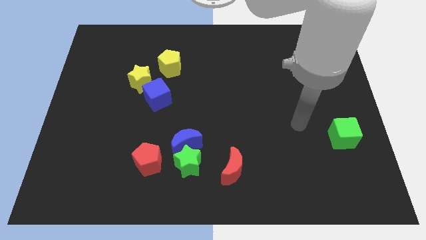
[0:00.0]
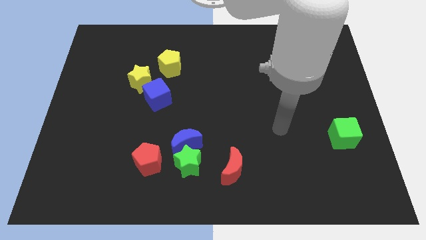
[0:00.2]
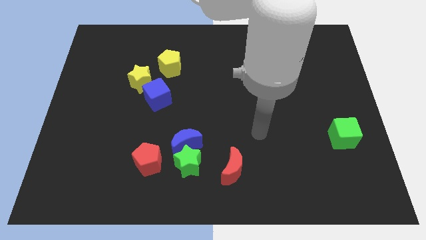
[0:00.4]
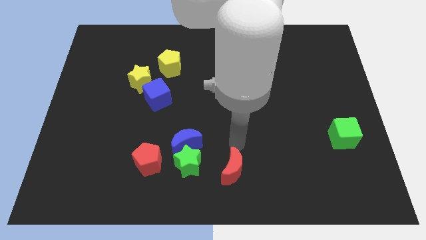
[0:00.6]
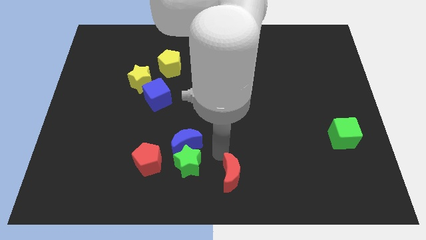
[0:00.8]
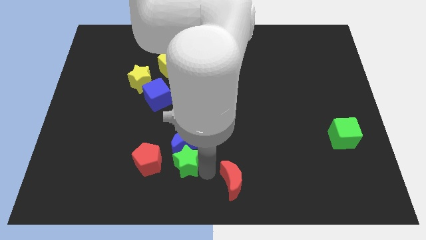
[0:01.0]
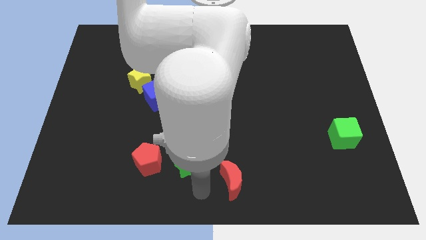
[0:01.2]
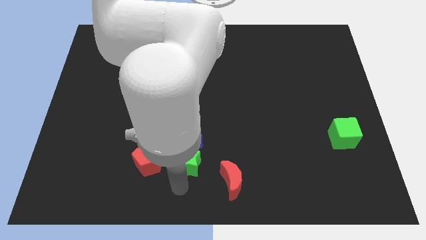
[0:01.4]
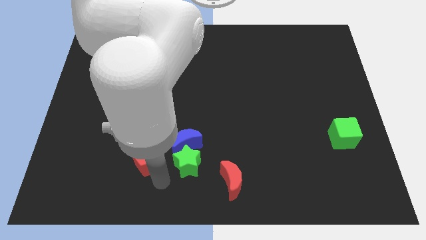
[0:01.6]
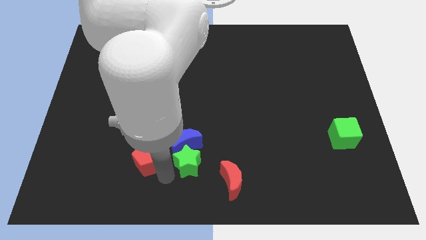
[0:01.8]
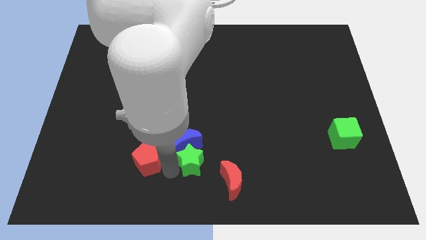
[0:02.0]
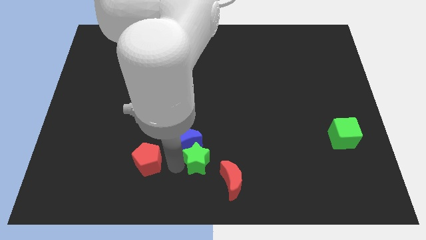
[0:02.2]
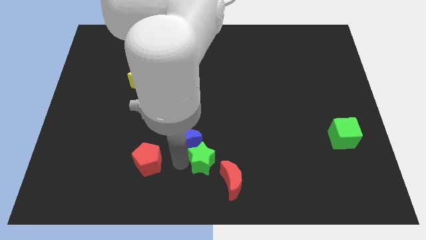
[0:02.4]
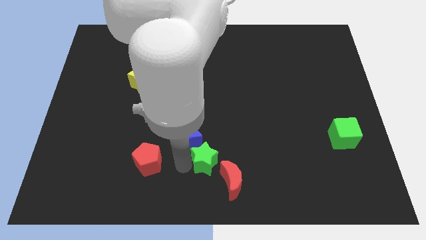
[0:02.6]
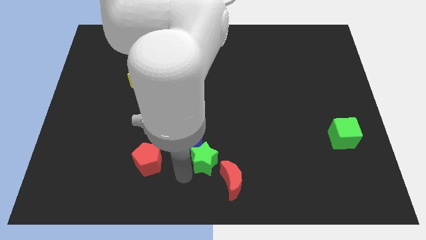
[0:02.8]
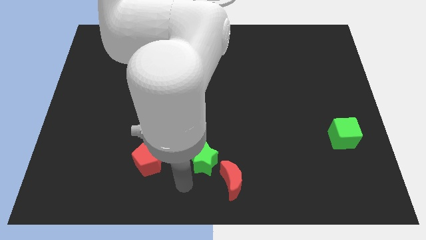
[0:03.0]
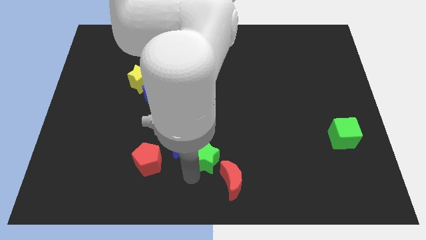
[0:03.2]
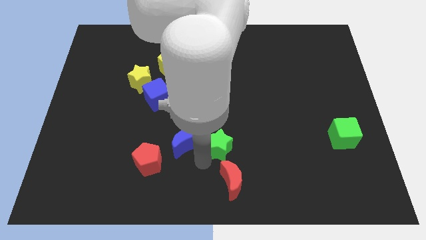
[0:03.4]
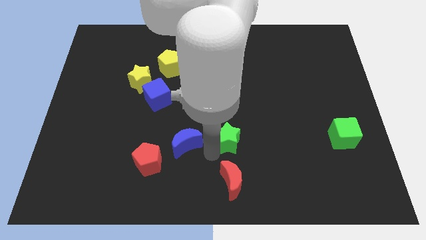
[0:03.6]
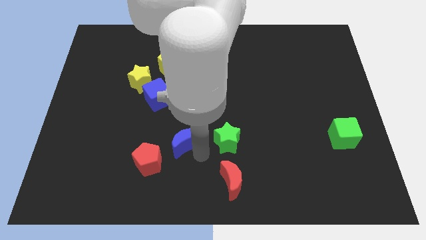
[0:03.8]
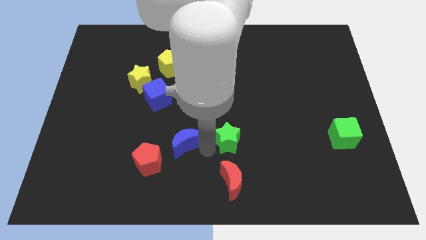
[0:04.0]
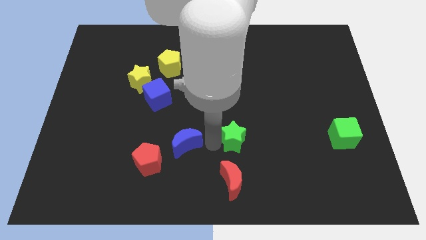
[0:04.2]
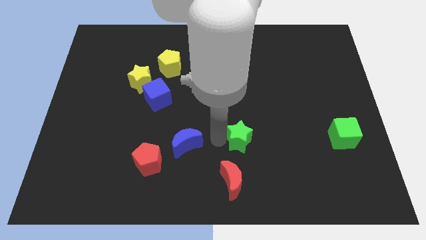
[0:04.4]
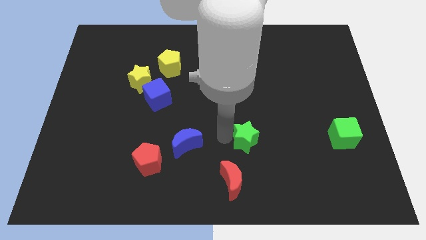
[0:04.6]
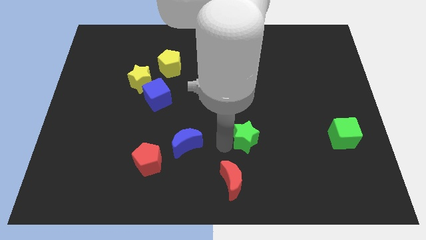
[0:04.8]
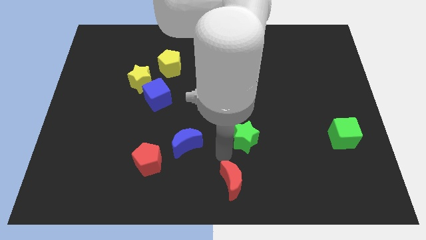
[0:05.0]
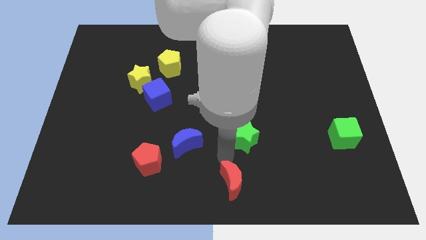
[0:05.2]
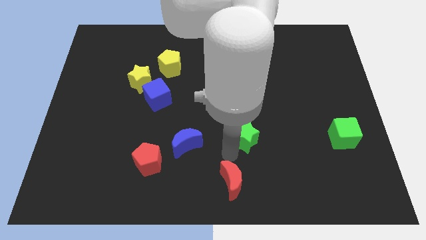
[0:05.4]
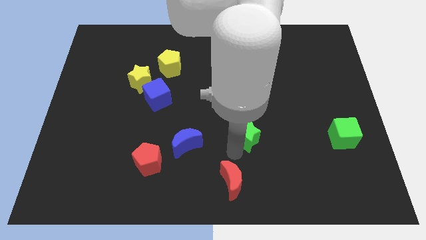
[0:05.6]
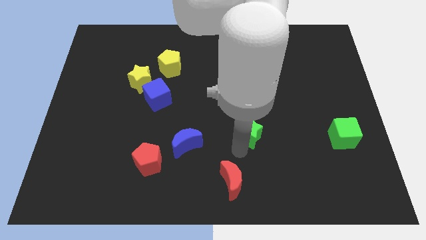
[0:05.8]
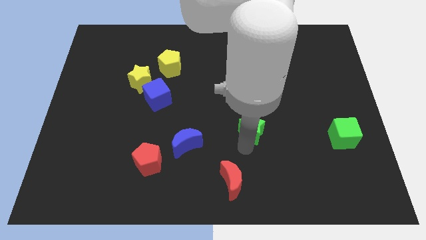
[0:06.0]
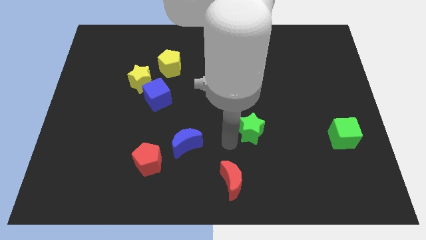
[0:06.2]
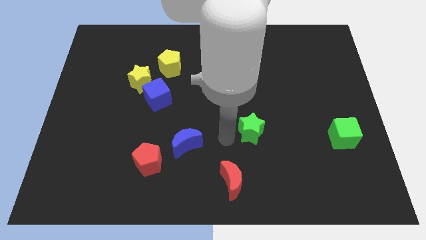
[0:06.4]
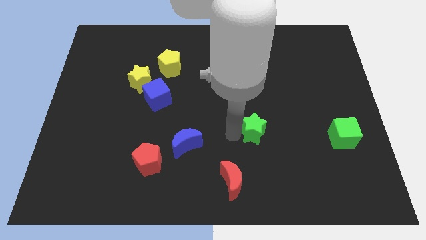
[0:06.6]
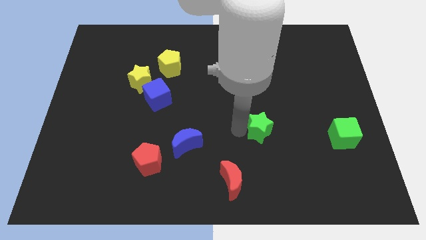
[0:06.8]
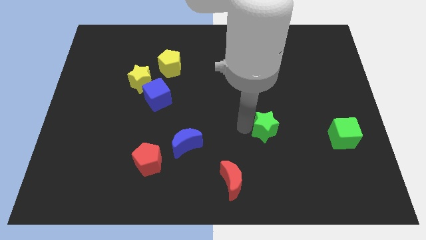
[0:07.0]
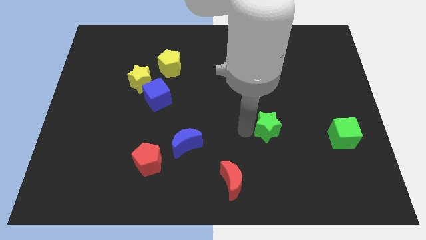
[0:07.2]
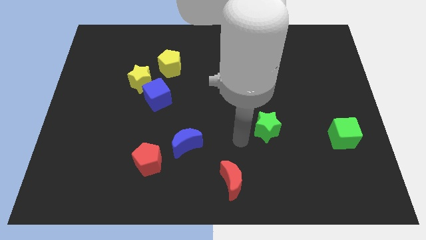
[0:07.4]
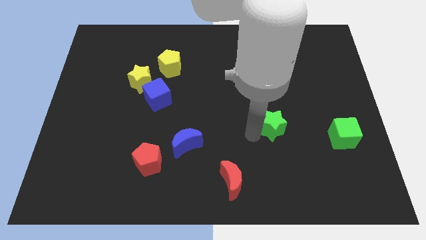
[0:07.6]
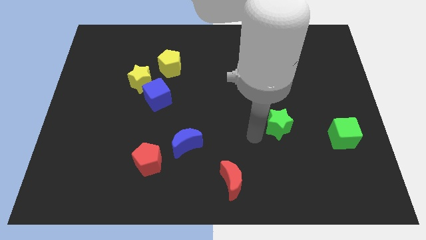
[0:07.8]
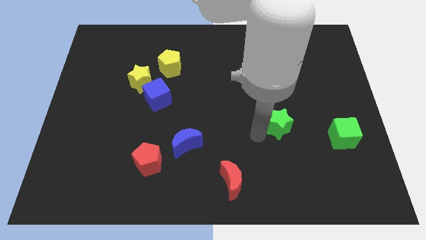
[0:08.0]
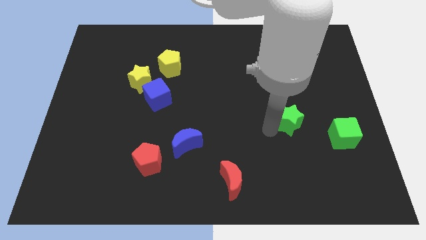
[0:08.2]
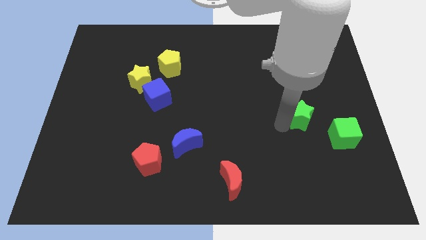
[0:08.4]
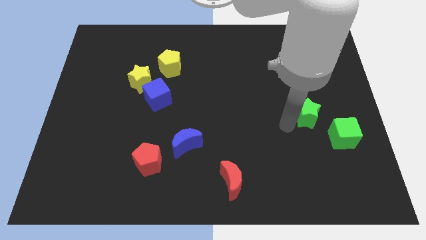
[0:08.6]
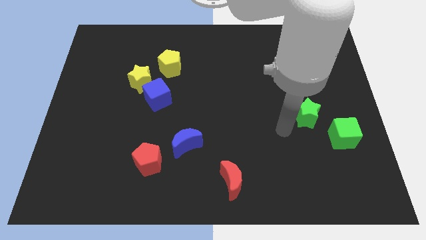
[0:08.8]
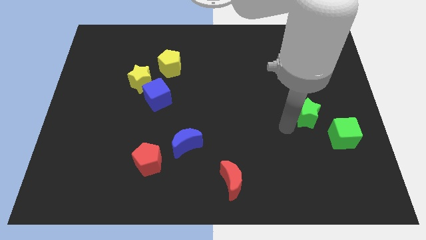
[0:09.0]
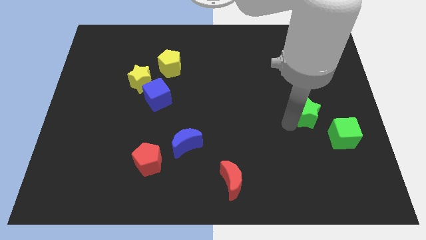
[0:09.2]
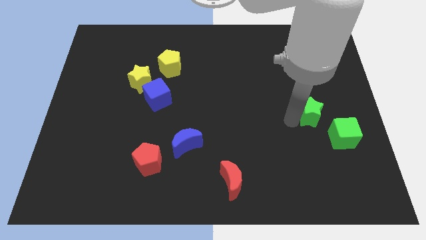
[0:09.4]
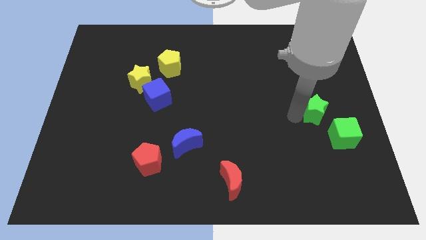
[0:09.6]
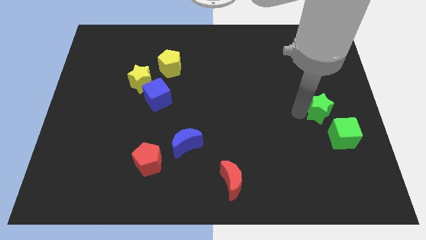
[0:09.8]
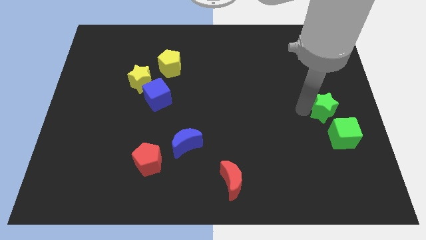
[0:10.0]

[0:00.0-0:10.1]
move the green star to the right side of the board

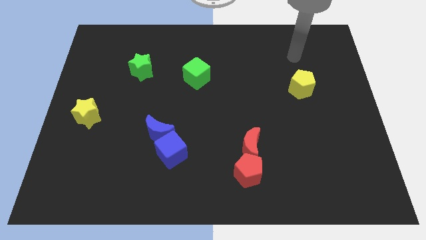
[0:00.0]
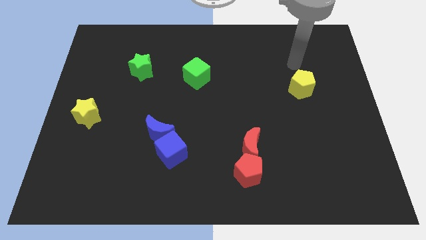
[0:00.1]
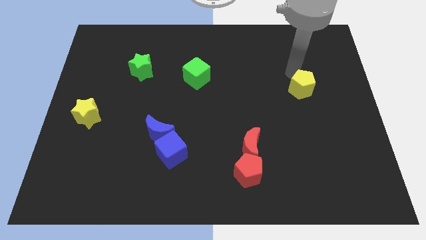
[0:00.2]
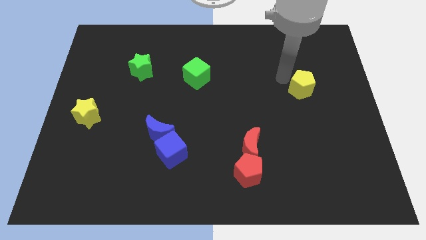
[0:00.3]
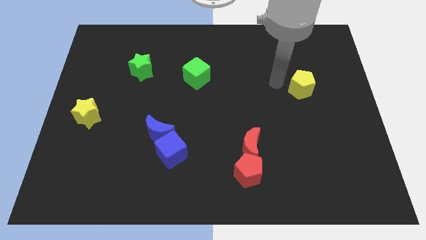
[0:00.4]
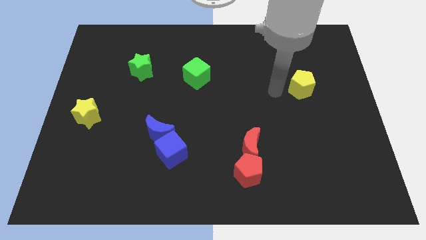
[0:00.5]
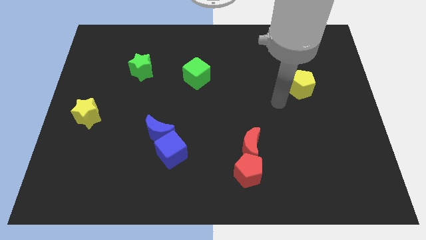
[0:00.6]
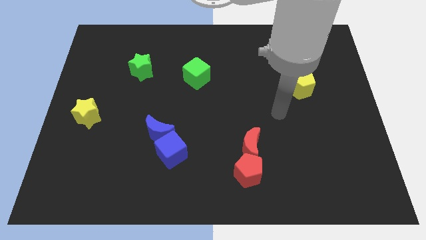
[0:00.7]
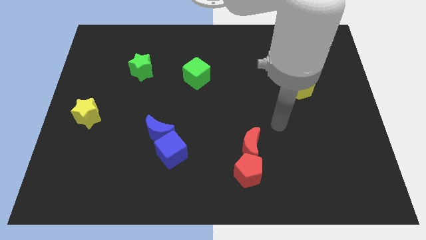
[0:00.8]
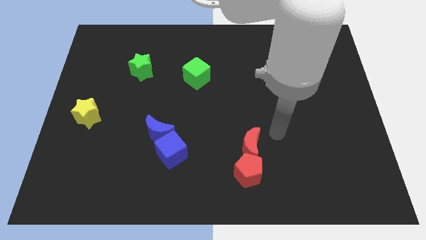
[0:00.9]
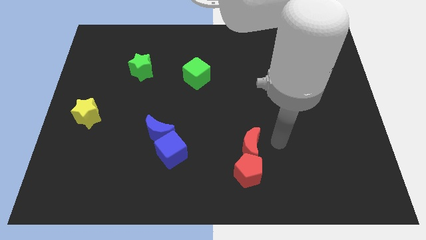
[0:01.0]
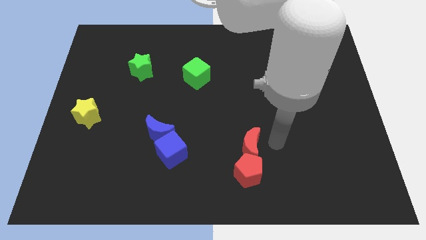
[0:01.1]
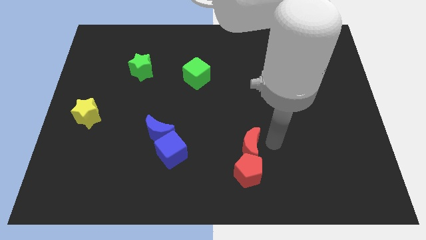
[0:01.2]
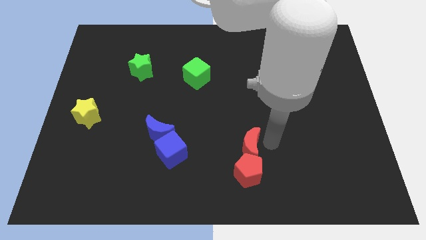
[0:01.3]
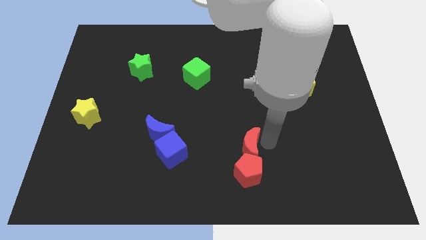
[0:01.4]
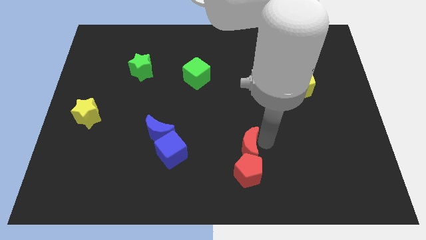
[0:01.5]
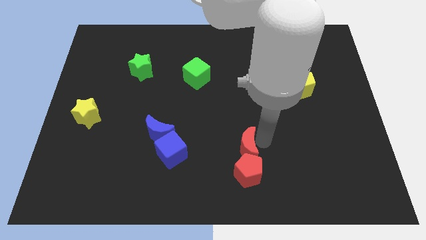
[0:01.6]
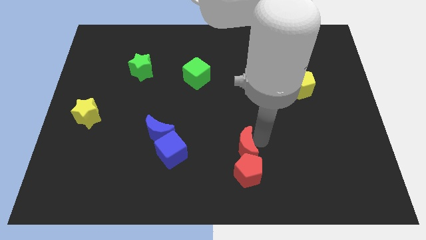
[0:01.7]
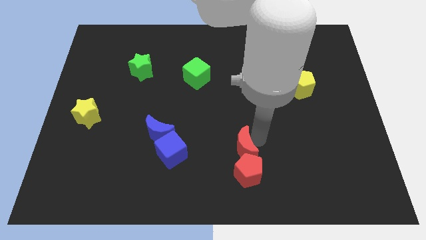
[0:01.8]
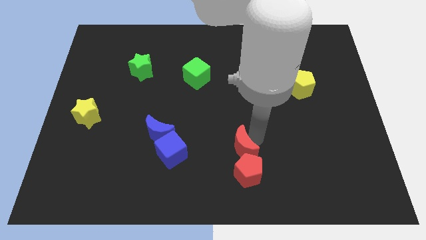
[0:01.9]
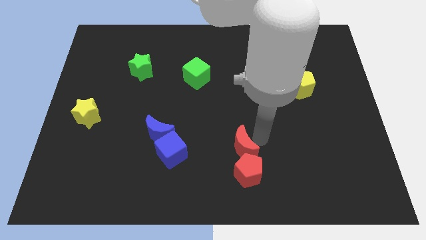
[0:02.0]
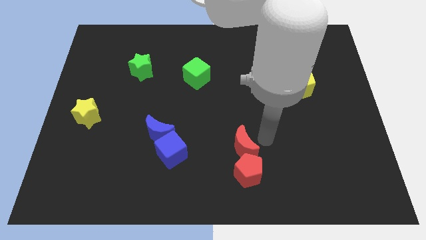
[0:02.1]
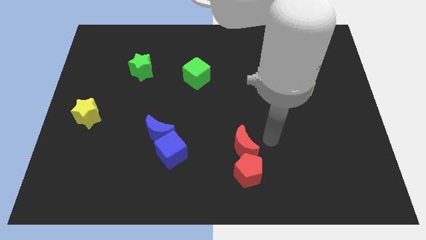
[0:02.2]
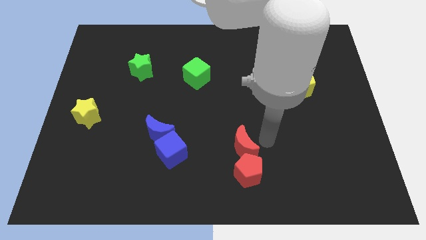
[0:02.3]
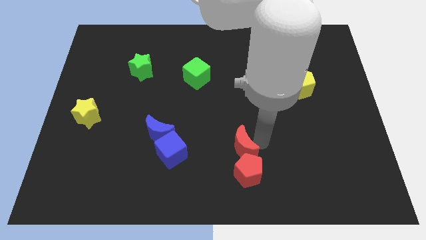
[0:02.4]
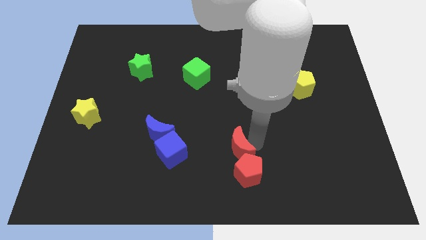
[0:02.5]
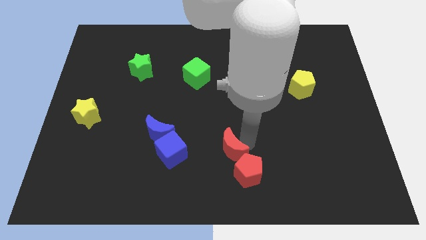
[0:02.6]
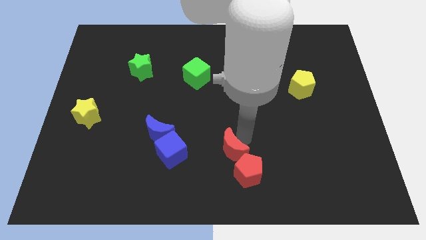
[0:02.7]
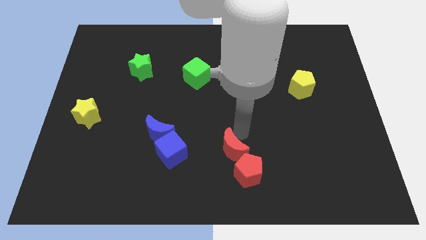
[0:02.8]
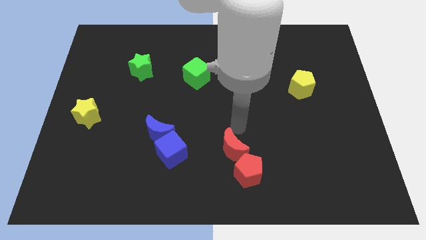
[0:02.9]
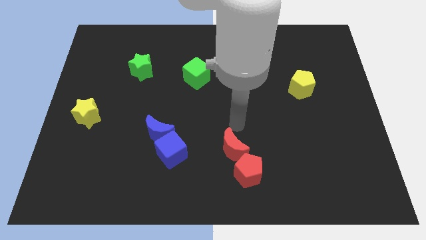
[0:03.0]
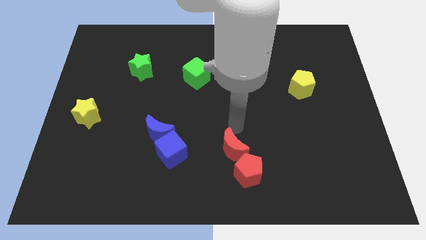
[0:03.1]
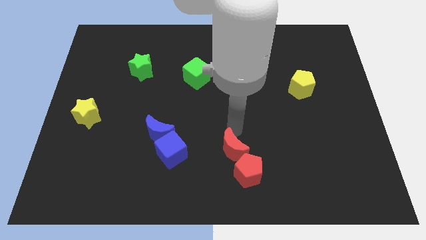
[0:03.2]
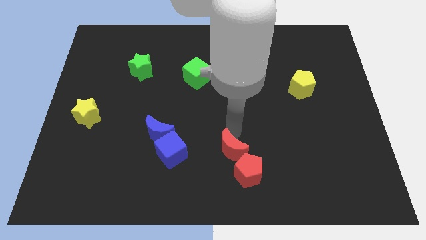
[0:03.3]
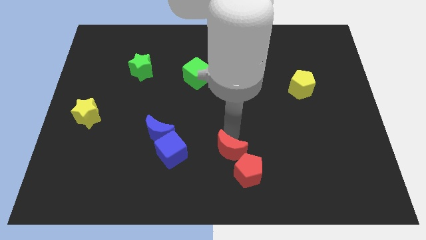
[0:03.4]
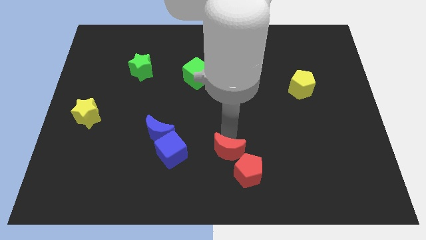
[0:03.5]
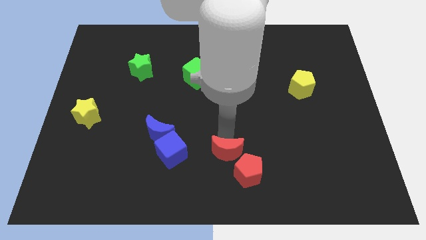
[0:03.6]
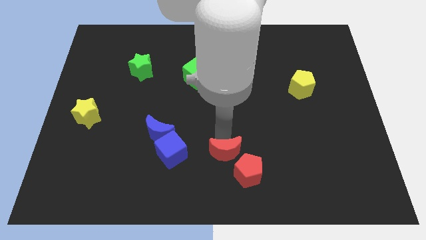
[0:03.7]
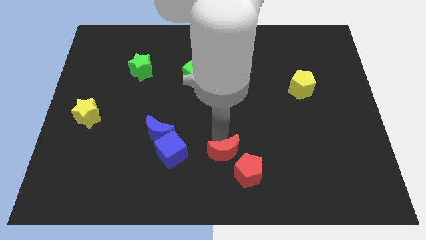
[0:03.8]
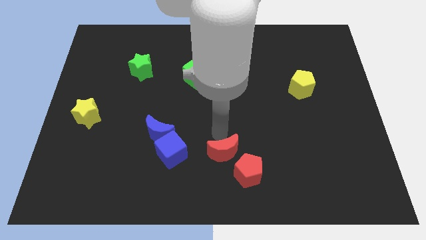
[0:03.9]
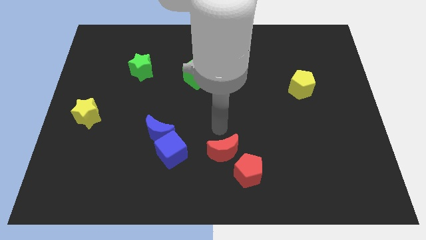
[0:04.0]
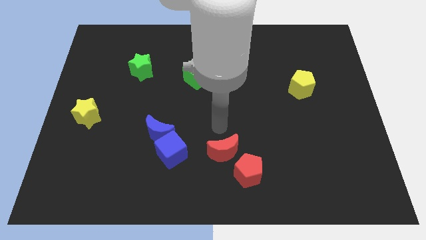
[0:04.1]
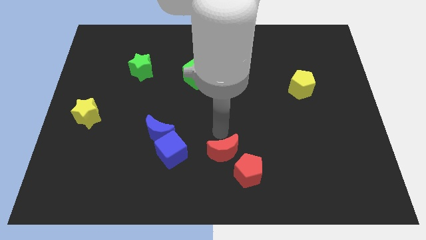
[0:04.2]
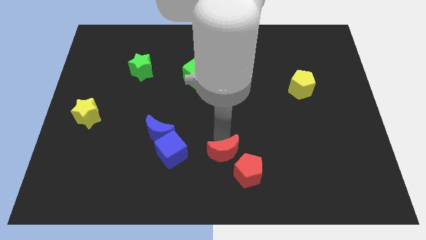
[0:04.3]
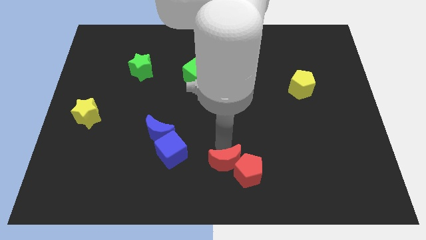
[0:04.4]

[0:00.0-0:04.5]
put the red moon to the bottom side
